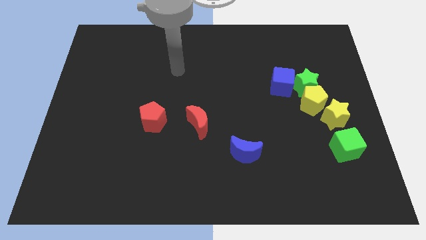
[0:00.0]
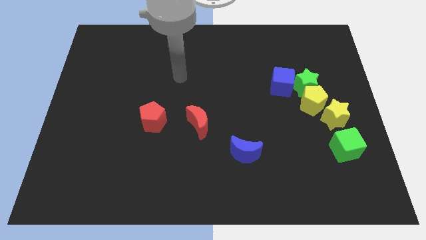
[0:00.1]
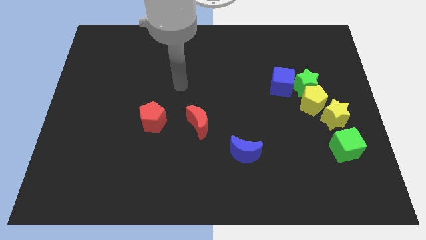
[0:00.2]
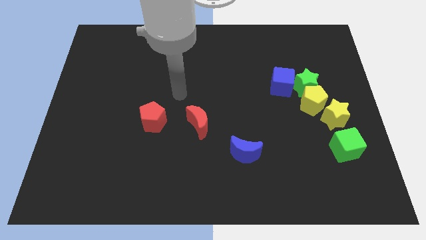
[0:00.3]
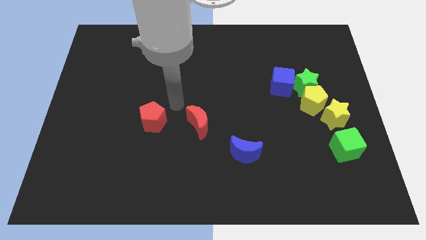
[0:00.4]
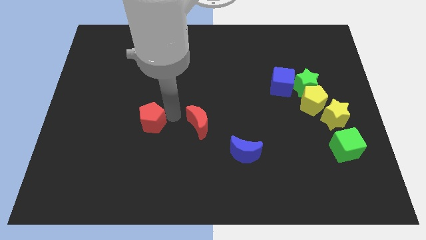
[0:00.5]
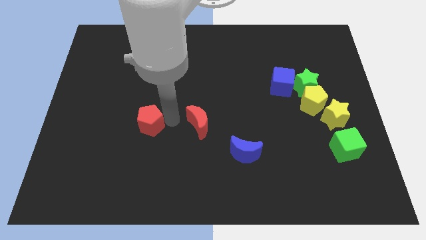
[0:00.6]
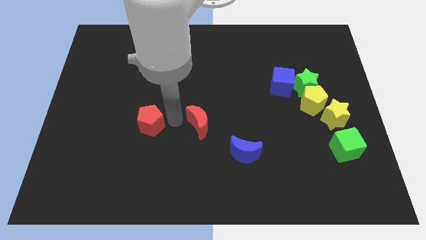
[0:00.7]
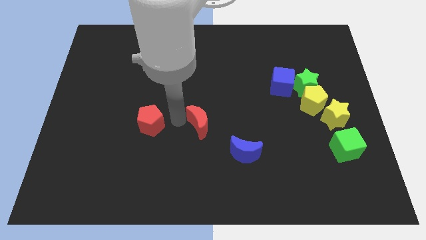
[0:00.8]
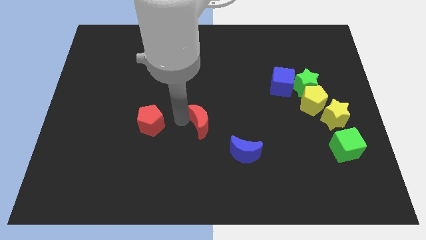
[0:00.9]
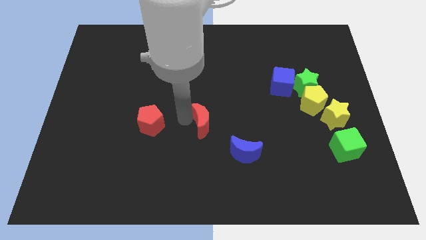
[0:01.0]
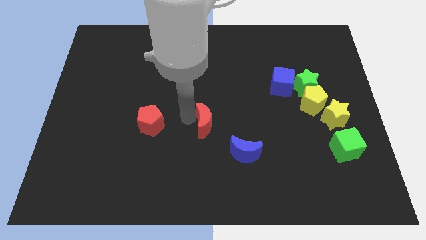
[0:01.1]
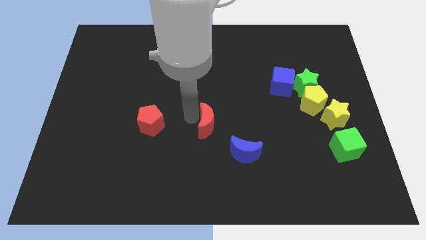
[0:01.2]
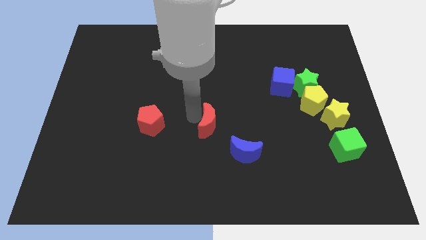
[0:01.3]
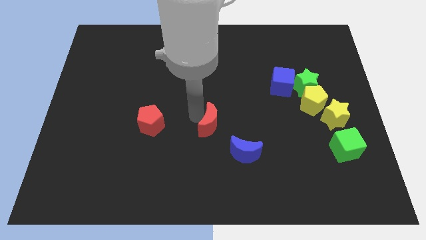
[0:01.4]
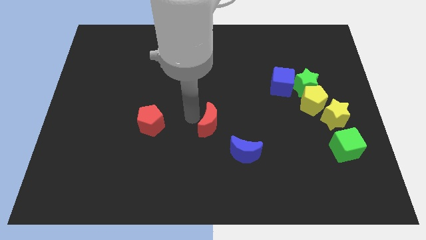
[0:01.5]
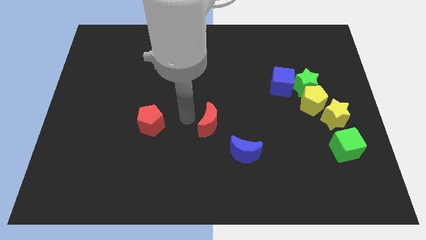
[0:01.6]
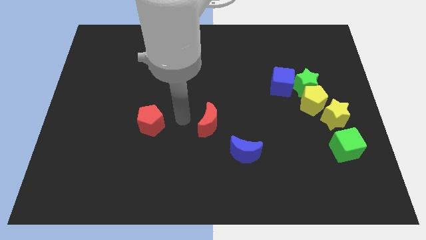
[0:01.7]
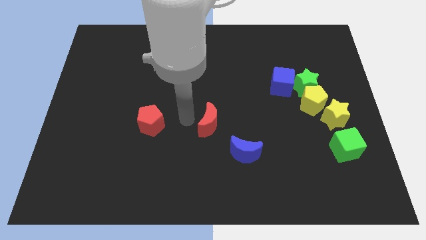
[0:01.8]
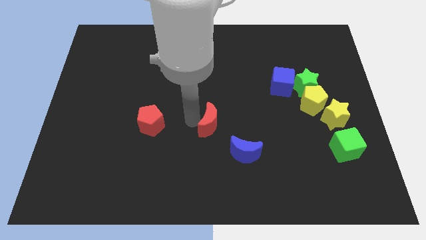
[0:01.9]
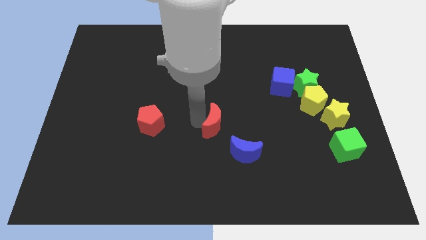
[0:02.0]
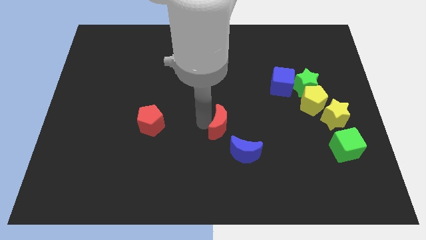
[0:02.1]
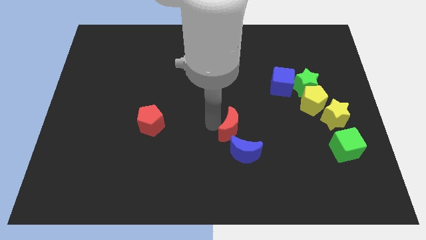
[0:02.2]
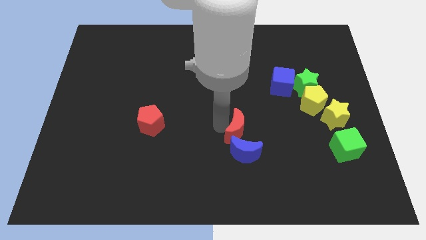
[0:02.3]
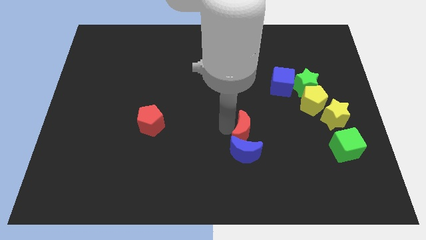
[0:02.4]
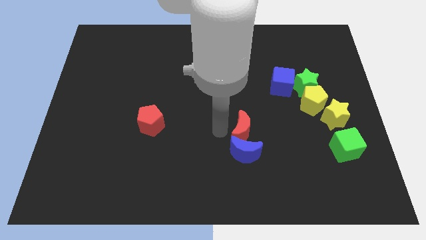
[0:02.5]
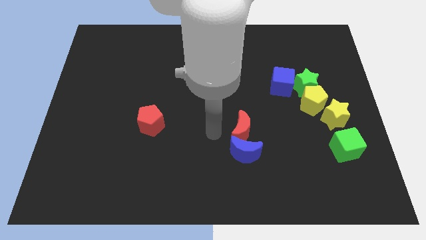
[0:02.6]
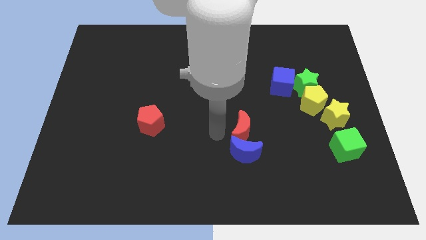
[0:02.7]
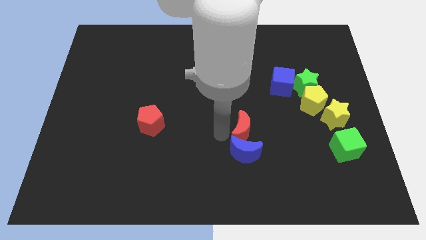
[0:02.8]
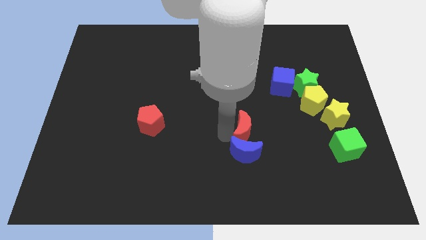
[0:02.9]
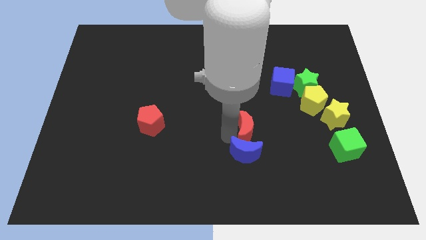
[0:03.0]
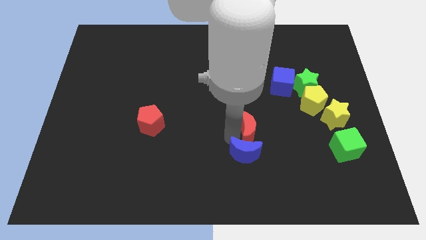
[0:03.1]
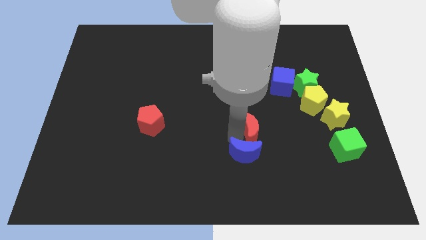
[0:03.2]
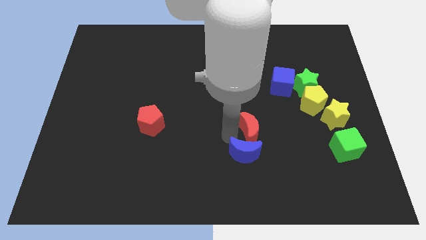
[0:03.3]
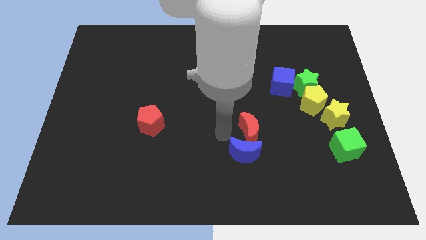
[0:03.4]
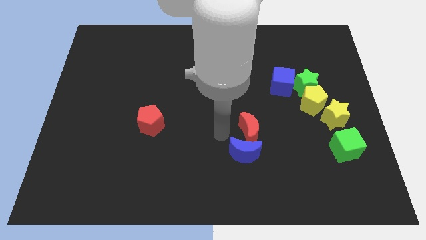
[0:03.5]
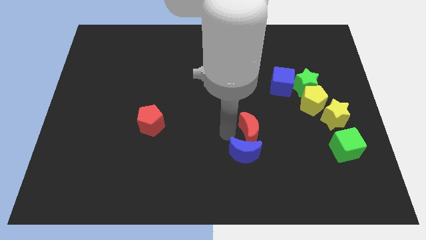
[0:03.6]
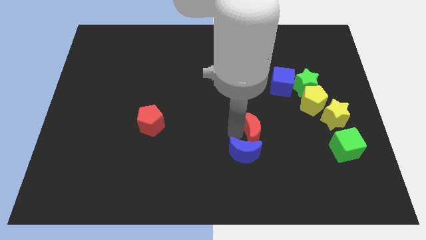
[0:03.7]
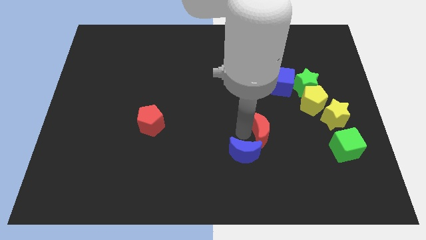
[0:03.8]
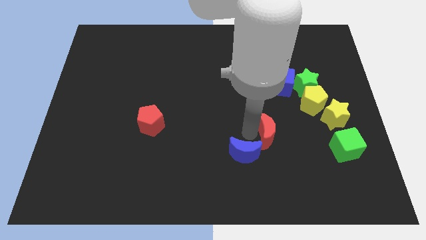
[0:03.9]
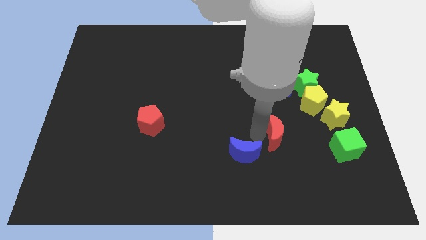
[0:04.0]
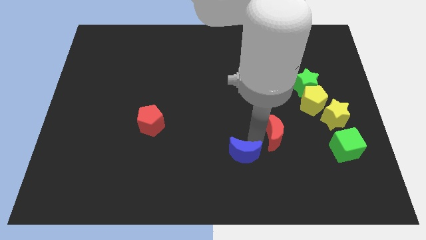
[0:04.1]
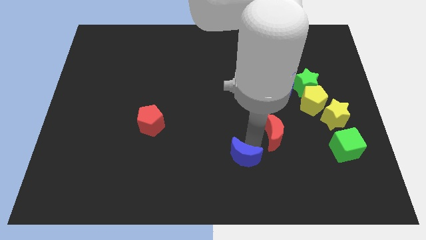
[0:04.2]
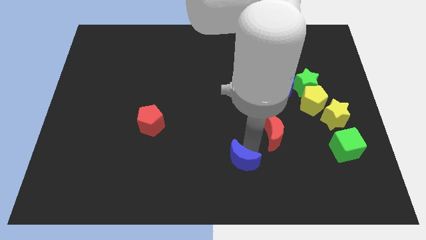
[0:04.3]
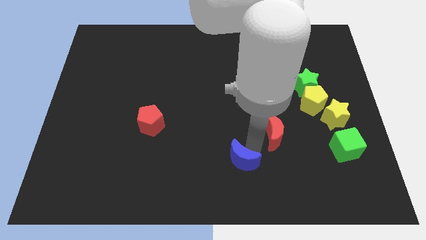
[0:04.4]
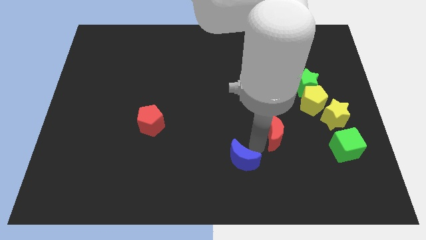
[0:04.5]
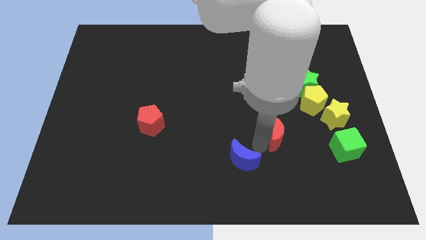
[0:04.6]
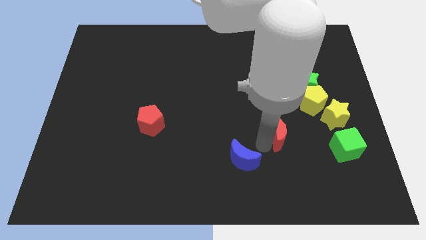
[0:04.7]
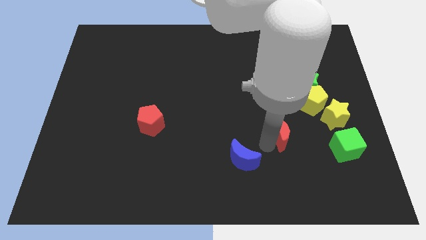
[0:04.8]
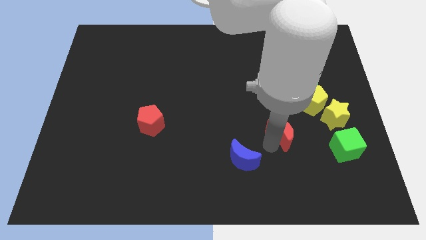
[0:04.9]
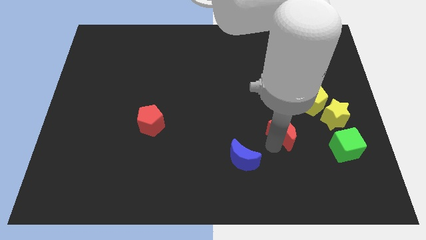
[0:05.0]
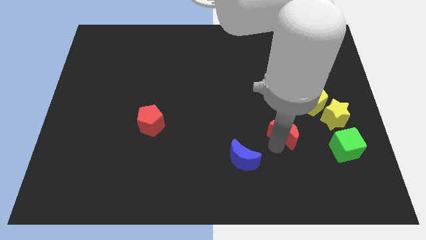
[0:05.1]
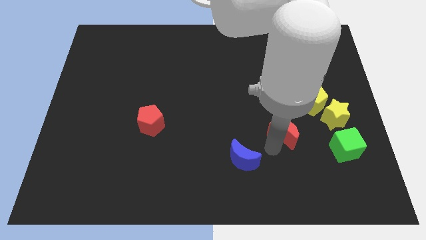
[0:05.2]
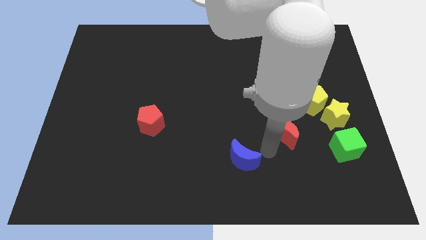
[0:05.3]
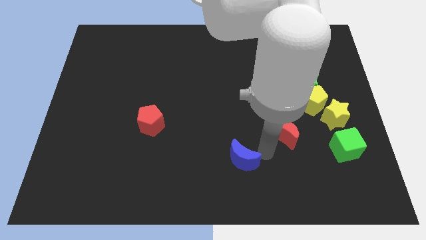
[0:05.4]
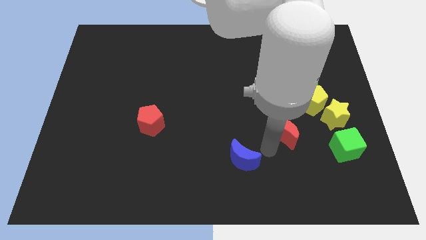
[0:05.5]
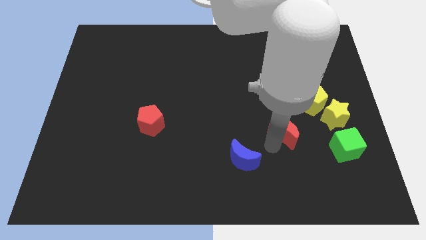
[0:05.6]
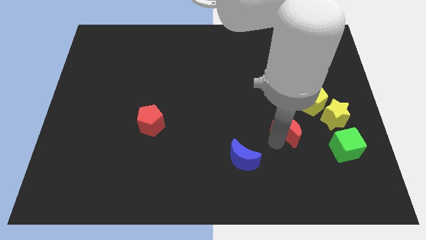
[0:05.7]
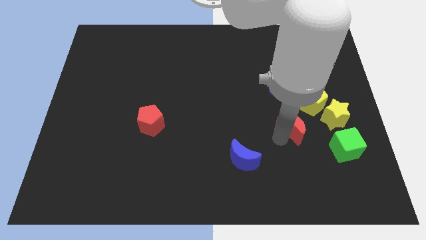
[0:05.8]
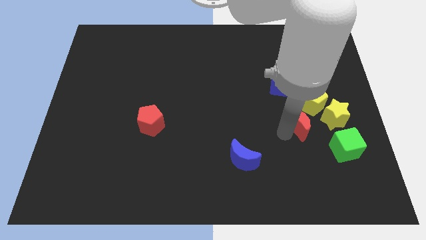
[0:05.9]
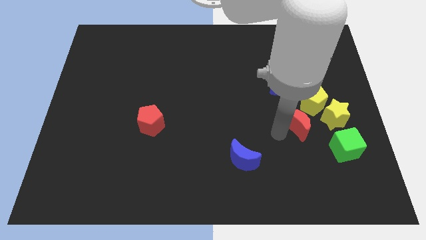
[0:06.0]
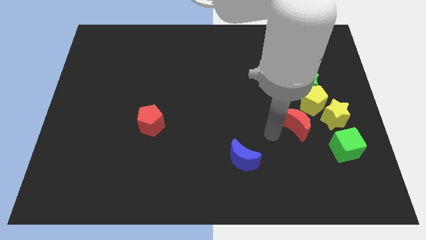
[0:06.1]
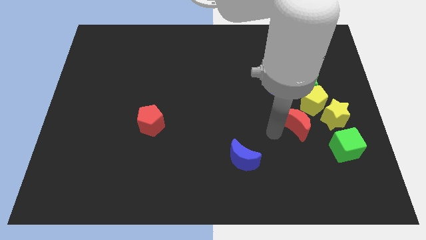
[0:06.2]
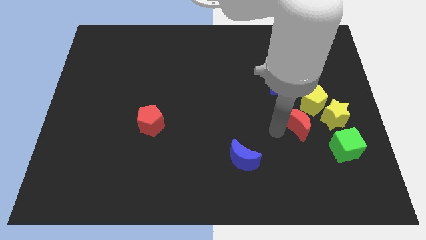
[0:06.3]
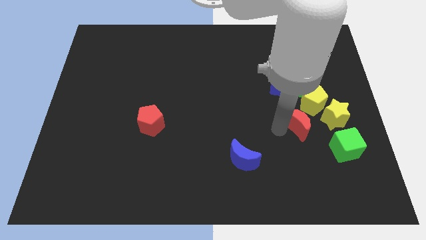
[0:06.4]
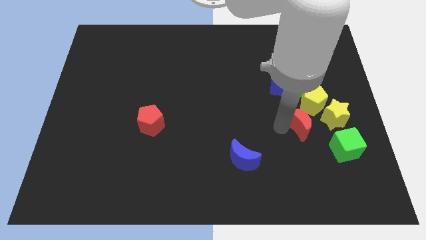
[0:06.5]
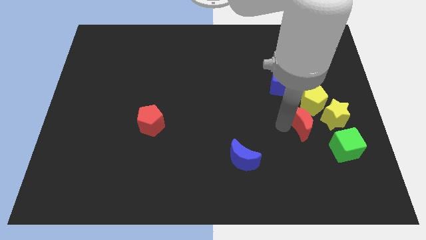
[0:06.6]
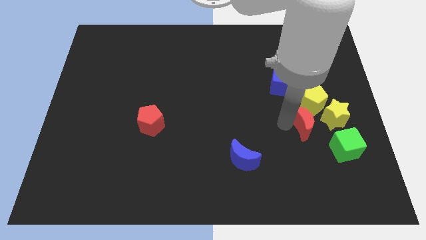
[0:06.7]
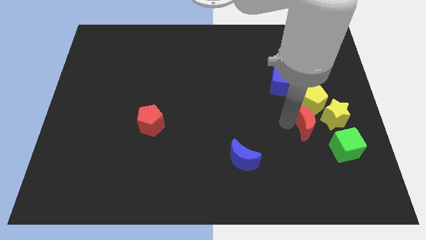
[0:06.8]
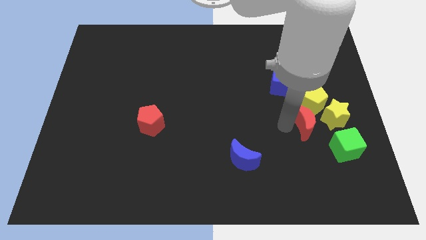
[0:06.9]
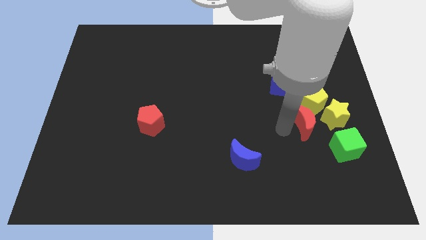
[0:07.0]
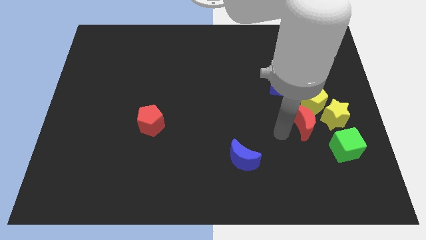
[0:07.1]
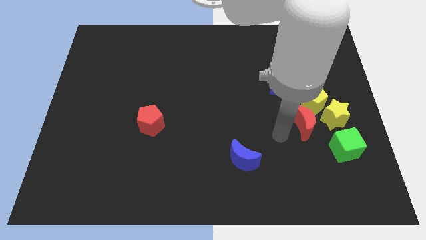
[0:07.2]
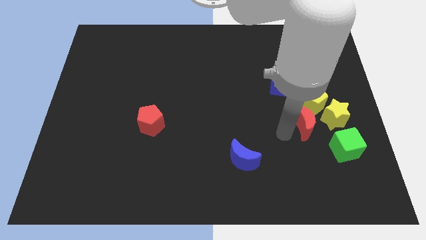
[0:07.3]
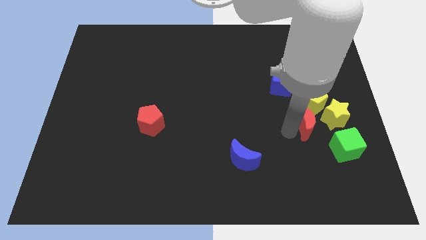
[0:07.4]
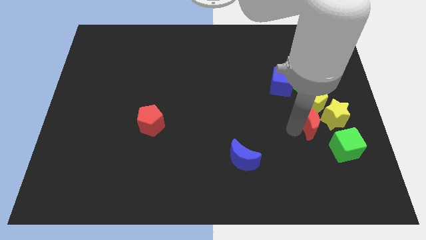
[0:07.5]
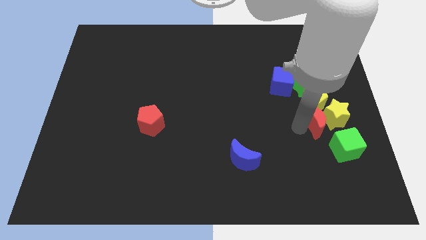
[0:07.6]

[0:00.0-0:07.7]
slide the red moon towards the yellow star

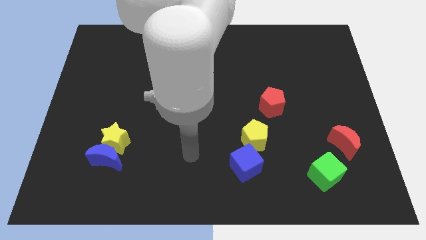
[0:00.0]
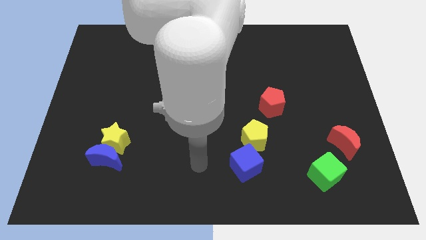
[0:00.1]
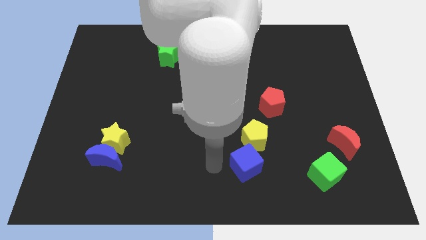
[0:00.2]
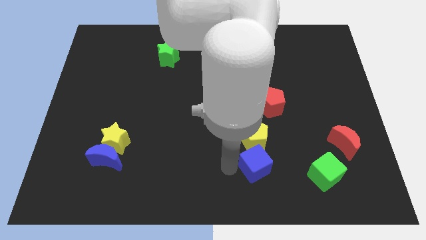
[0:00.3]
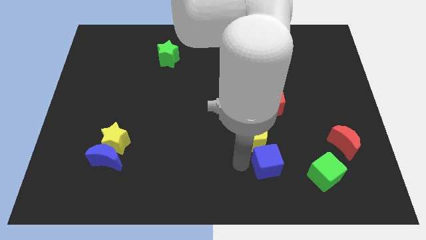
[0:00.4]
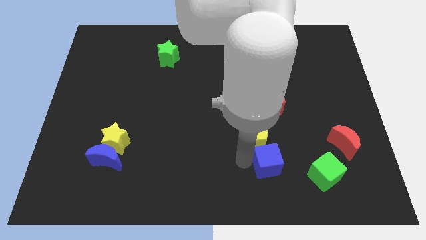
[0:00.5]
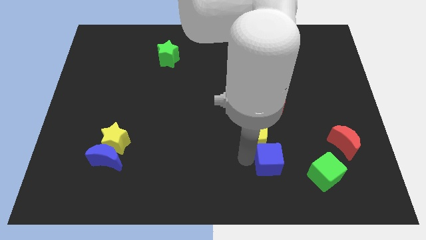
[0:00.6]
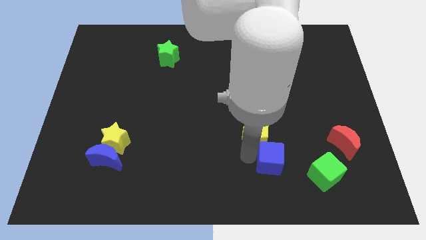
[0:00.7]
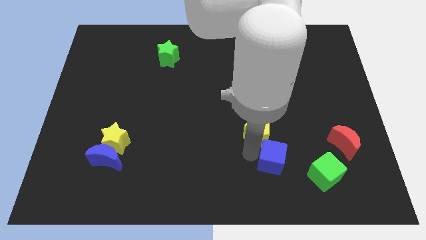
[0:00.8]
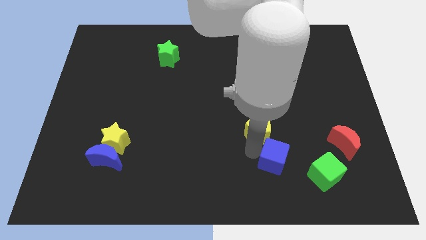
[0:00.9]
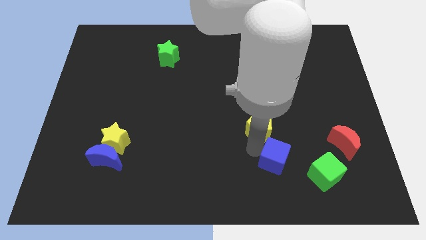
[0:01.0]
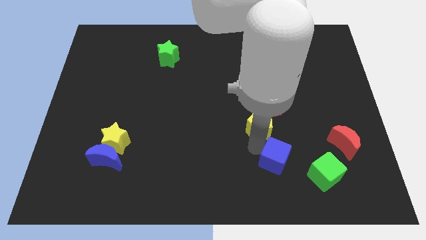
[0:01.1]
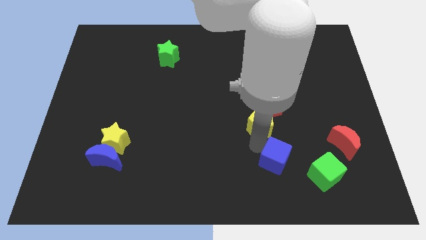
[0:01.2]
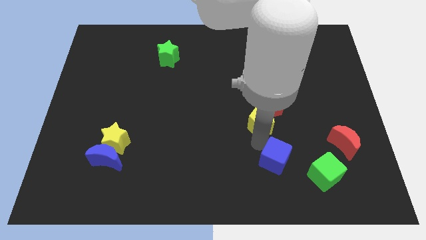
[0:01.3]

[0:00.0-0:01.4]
push the yellow pentagon to the red pentagon
